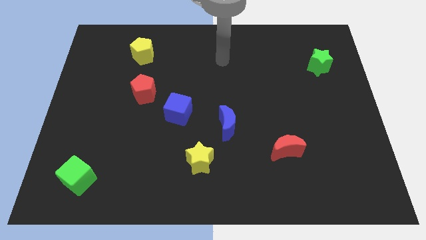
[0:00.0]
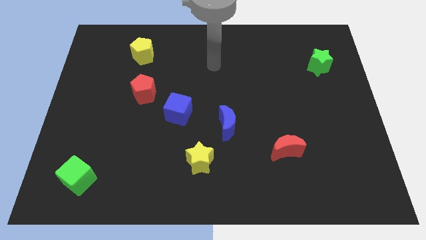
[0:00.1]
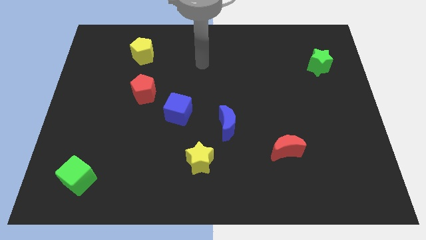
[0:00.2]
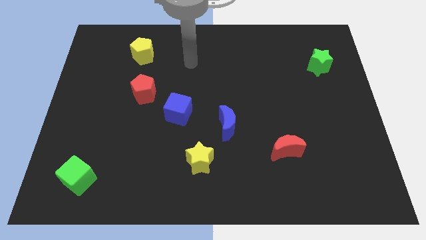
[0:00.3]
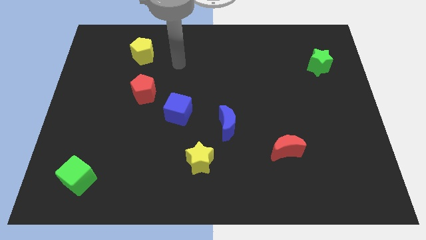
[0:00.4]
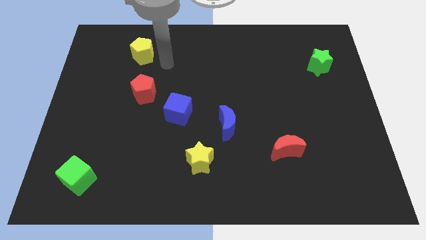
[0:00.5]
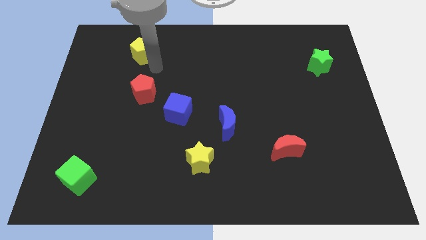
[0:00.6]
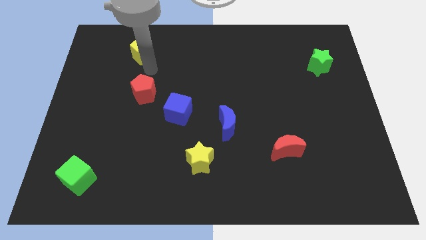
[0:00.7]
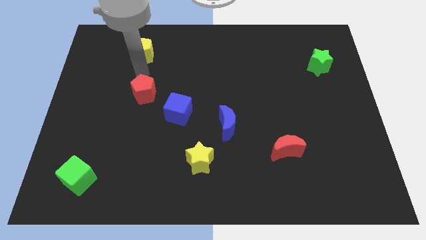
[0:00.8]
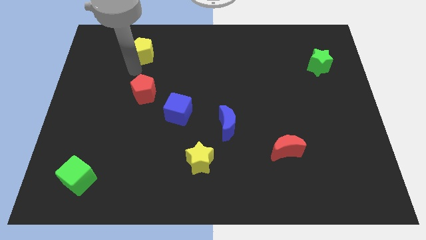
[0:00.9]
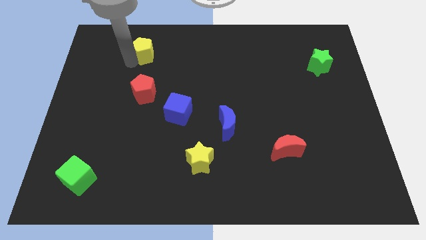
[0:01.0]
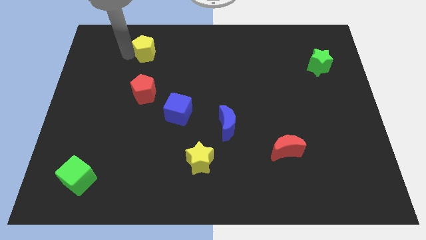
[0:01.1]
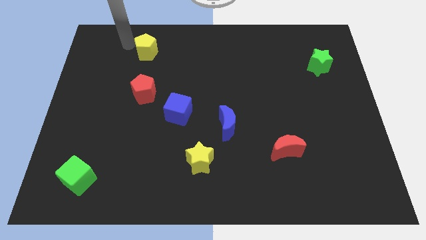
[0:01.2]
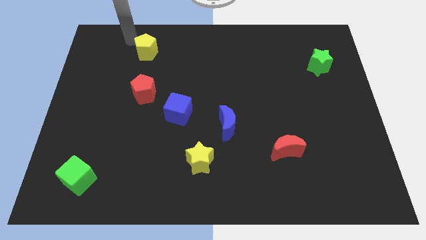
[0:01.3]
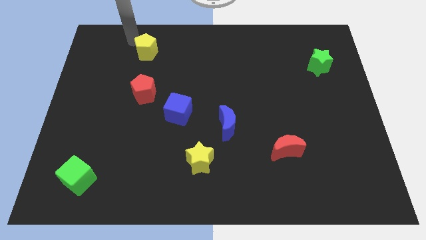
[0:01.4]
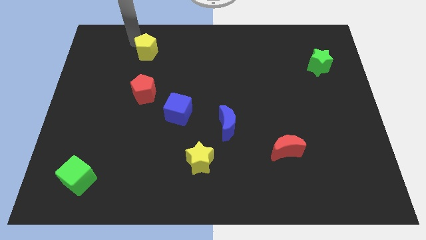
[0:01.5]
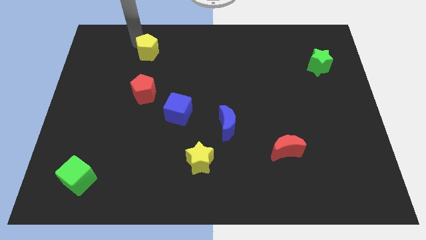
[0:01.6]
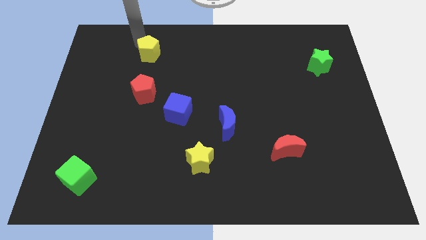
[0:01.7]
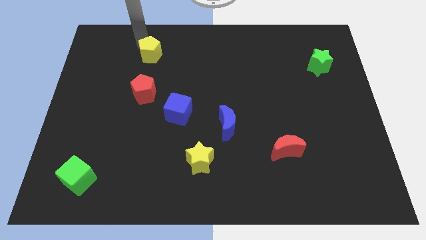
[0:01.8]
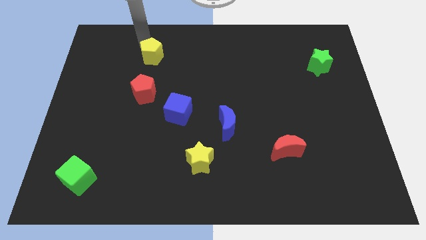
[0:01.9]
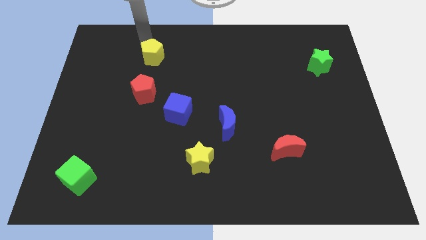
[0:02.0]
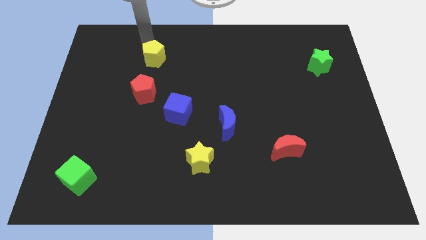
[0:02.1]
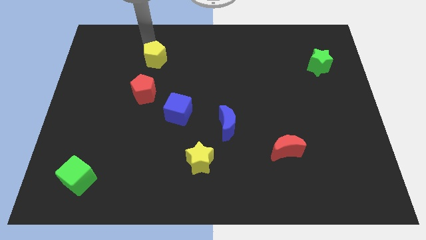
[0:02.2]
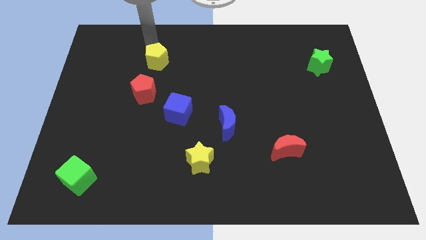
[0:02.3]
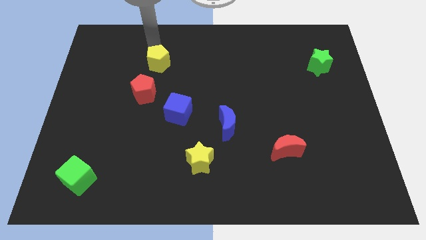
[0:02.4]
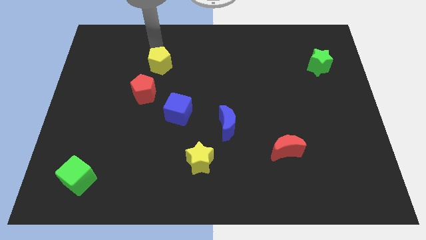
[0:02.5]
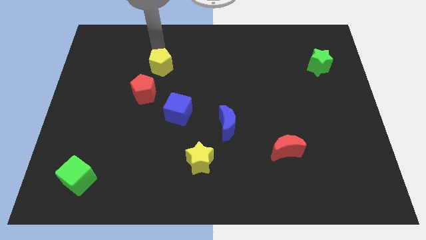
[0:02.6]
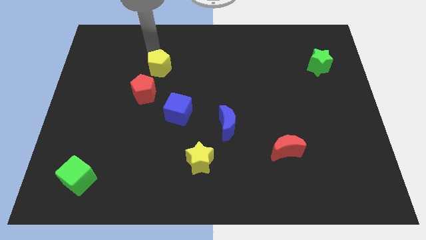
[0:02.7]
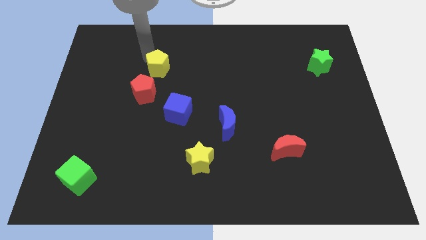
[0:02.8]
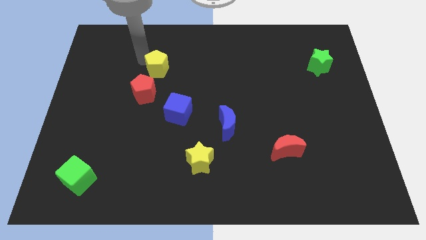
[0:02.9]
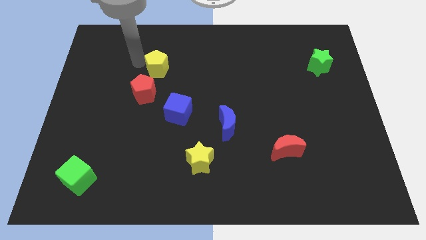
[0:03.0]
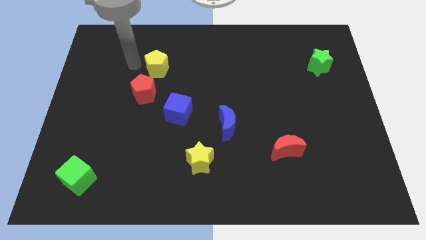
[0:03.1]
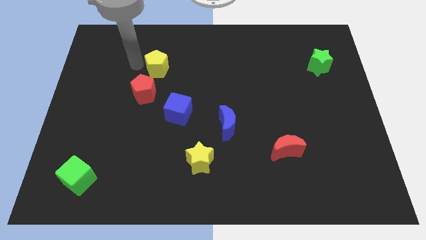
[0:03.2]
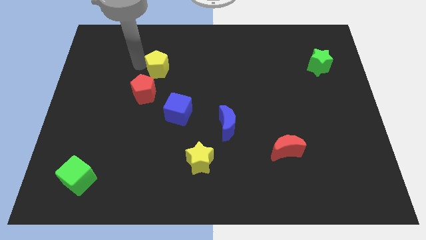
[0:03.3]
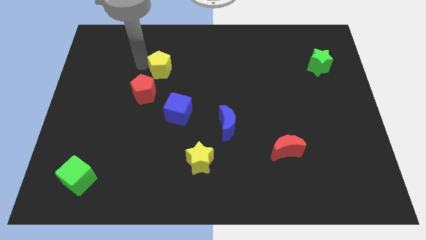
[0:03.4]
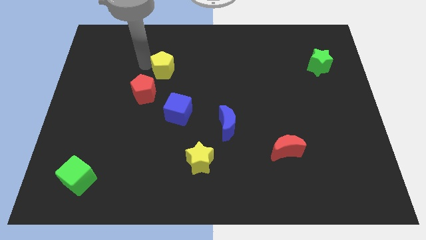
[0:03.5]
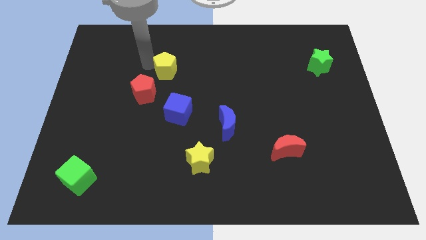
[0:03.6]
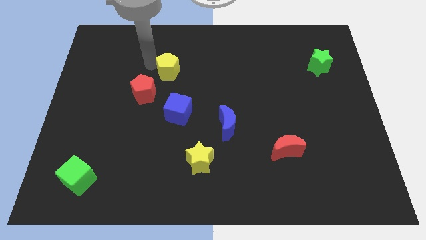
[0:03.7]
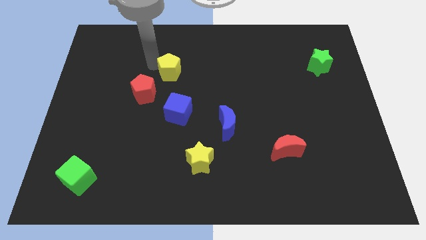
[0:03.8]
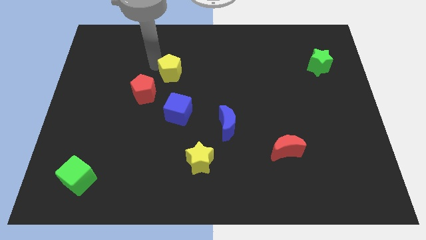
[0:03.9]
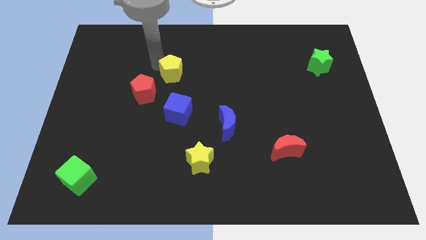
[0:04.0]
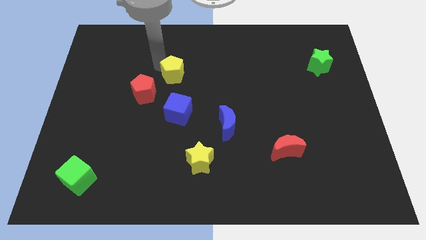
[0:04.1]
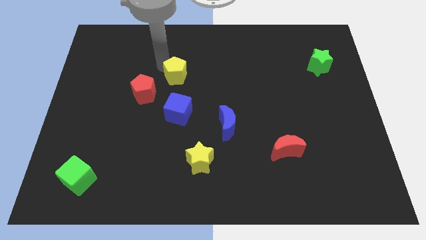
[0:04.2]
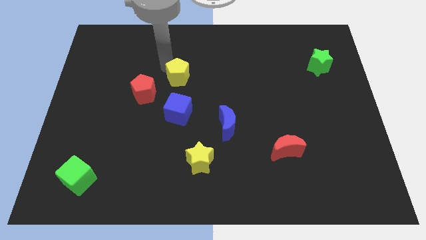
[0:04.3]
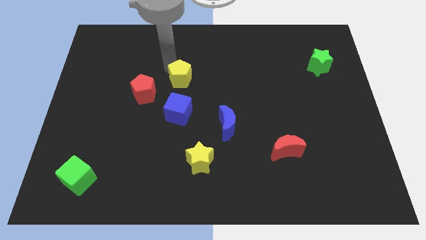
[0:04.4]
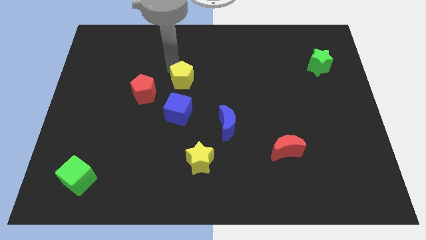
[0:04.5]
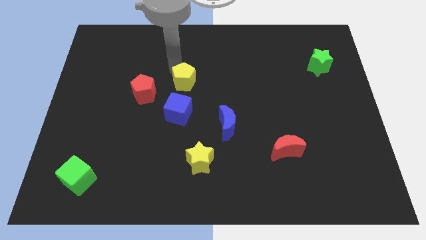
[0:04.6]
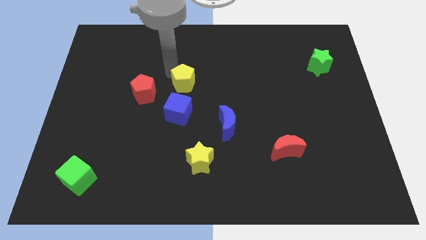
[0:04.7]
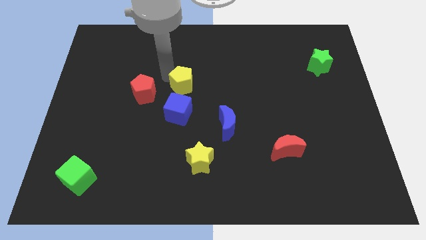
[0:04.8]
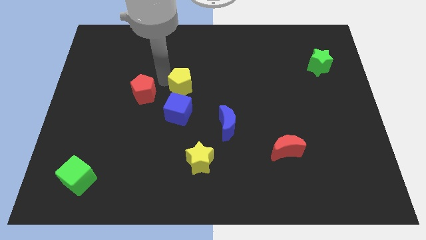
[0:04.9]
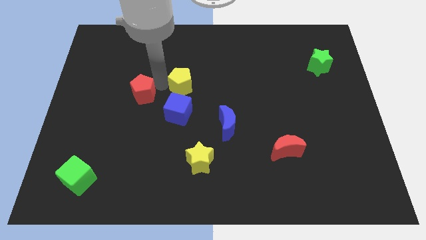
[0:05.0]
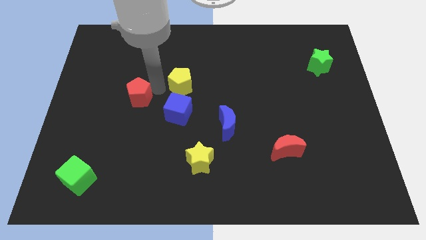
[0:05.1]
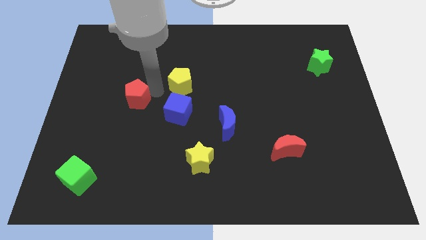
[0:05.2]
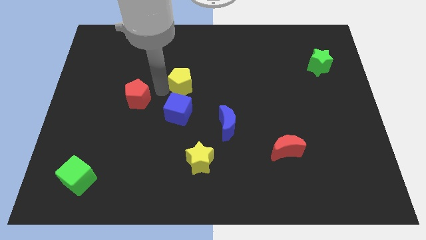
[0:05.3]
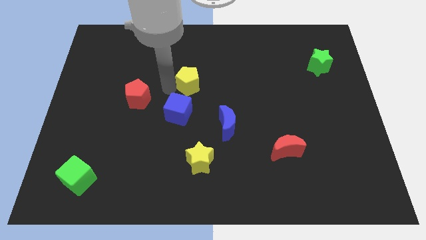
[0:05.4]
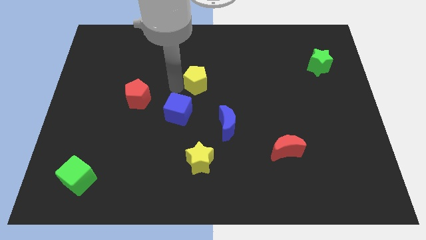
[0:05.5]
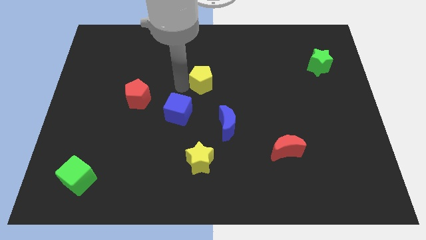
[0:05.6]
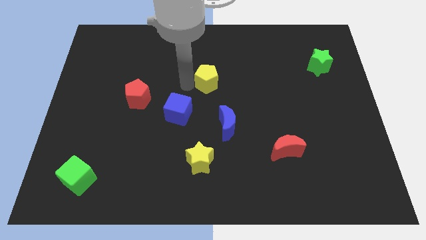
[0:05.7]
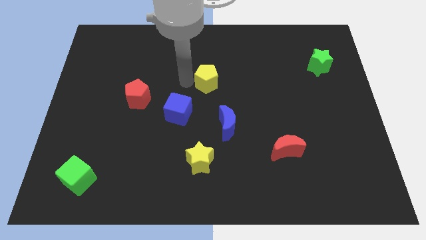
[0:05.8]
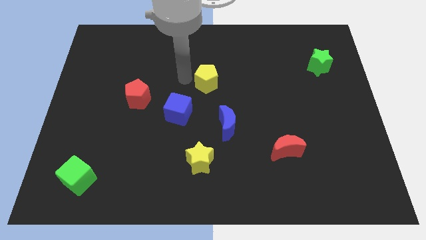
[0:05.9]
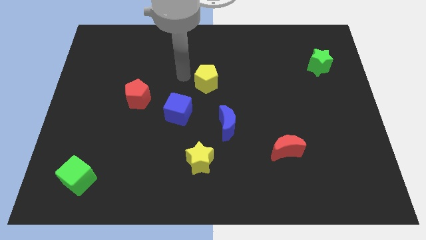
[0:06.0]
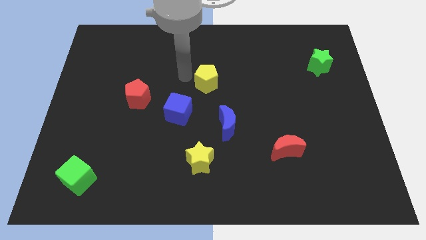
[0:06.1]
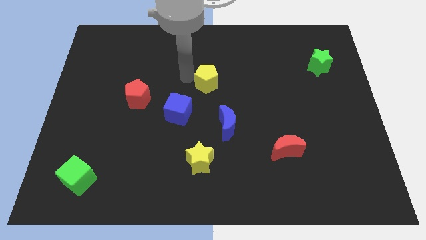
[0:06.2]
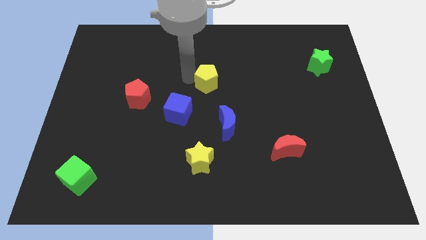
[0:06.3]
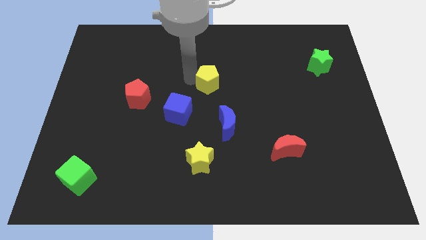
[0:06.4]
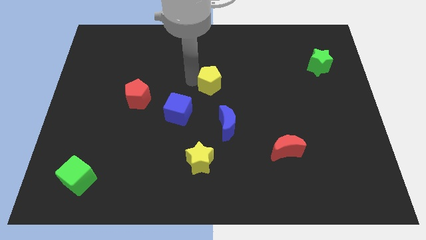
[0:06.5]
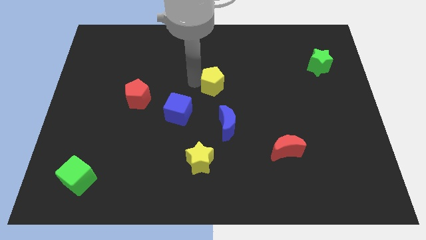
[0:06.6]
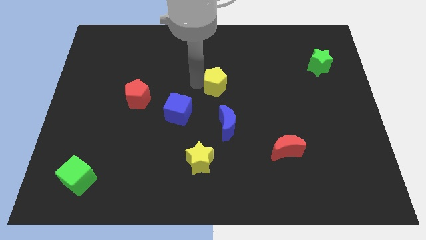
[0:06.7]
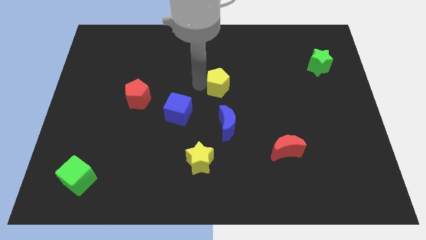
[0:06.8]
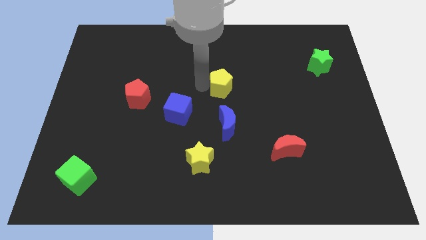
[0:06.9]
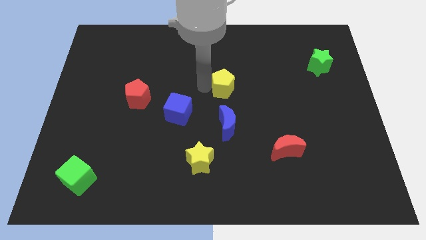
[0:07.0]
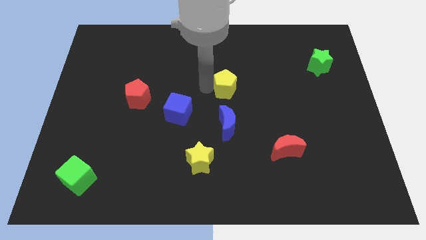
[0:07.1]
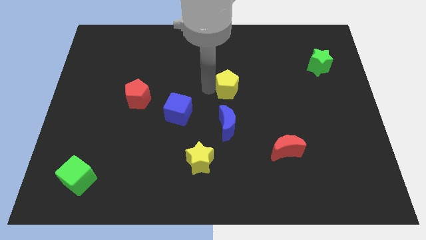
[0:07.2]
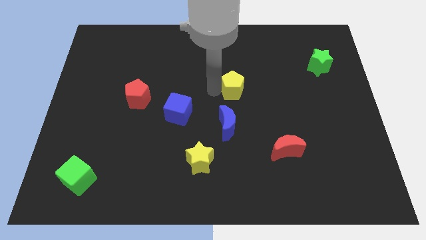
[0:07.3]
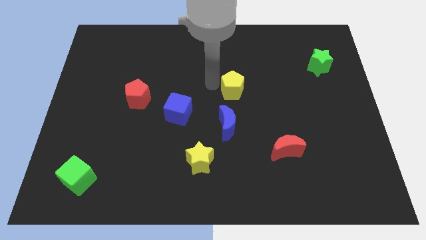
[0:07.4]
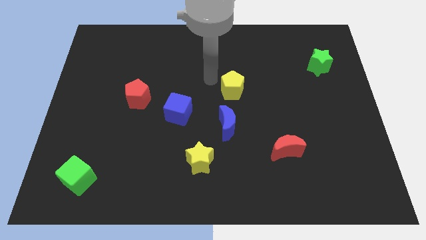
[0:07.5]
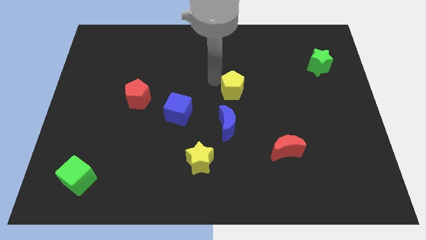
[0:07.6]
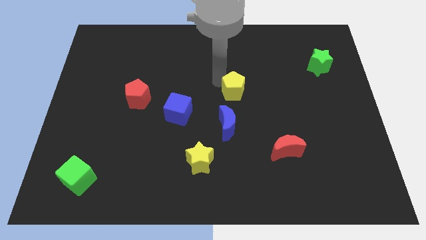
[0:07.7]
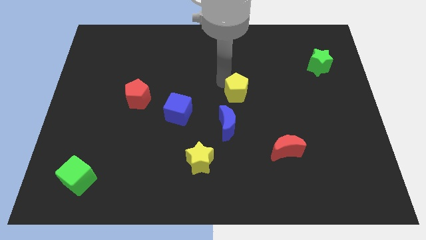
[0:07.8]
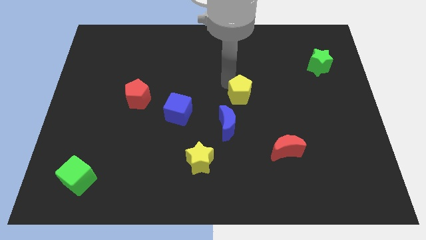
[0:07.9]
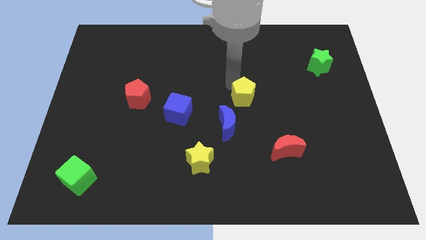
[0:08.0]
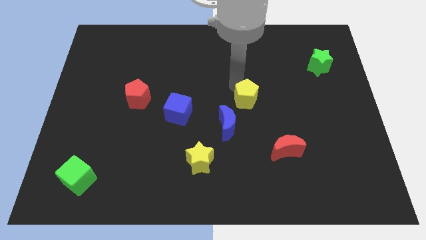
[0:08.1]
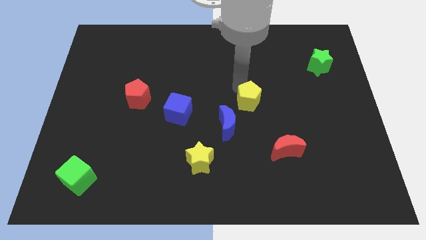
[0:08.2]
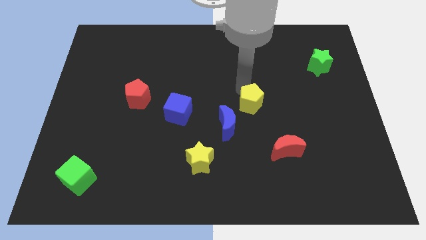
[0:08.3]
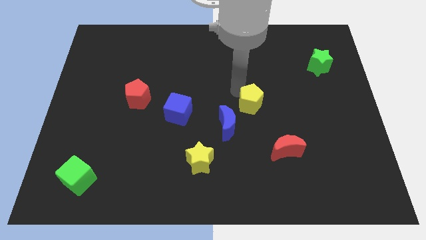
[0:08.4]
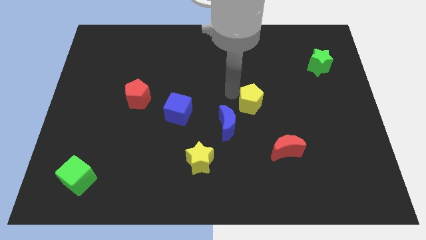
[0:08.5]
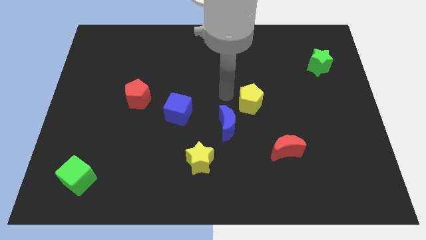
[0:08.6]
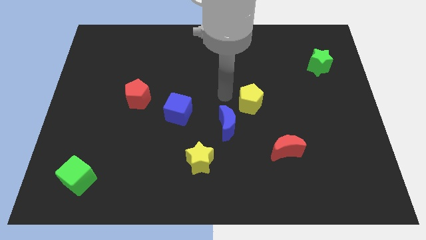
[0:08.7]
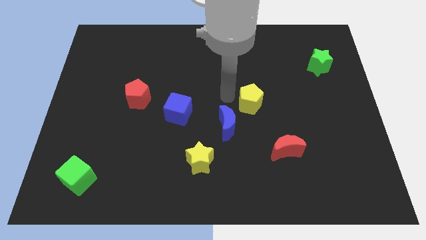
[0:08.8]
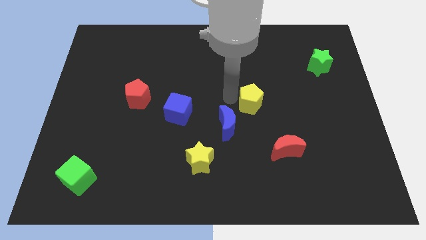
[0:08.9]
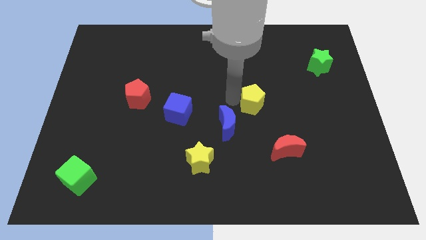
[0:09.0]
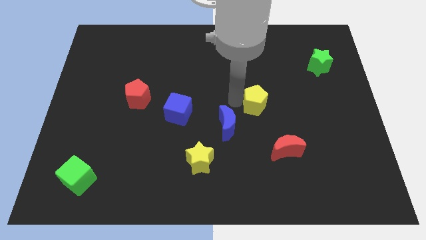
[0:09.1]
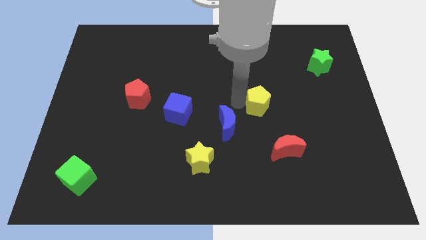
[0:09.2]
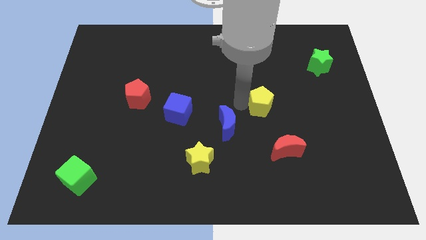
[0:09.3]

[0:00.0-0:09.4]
push the yellow pentagon to the top side of the red moon
